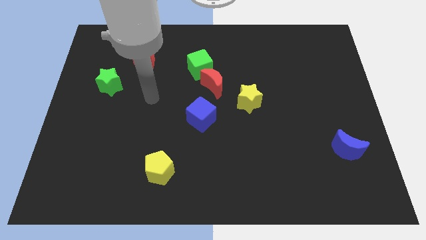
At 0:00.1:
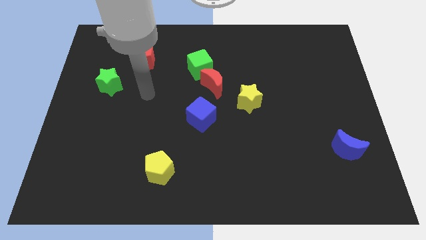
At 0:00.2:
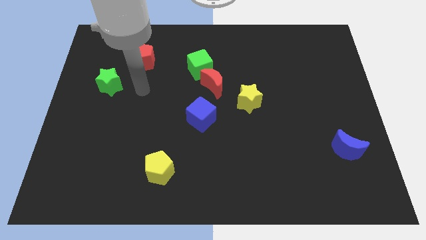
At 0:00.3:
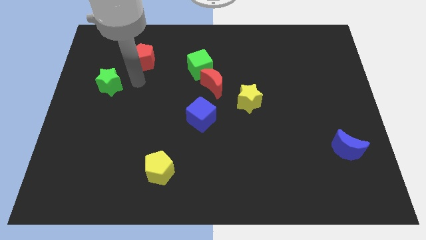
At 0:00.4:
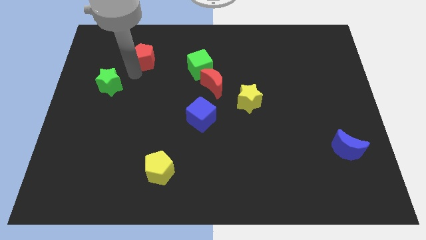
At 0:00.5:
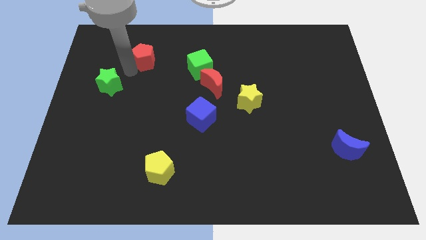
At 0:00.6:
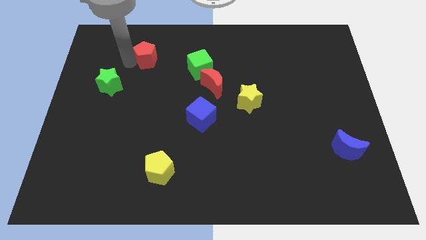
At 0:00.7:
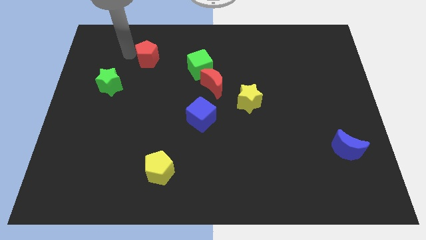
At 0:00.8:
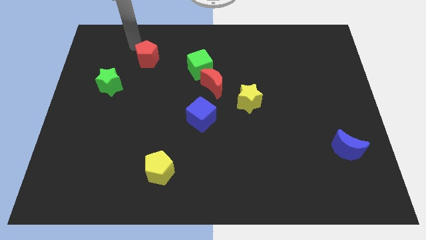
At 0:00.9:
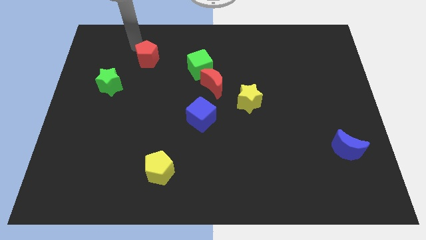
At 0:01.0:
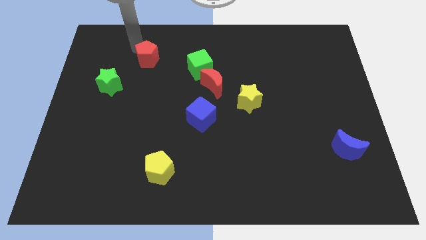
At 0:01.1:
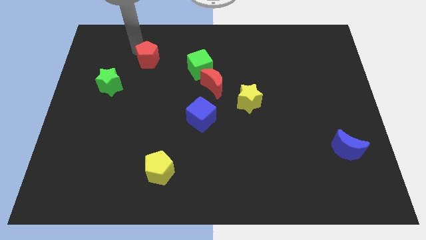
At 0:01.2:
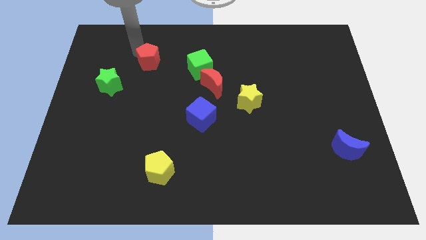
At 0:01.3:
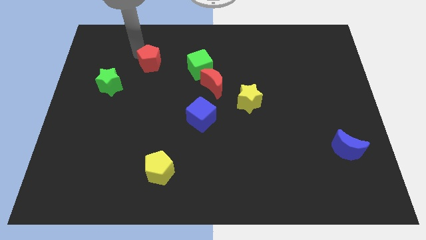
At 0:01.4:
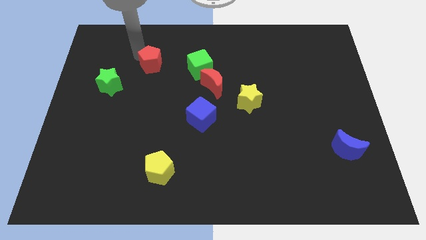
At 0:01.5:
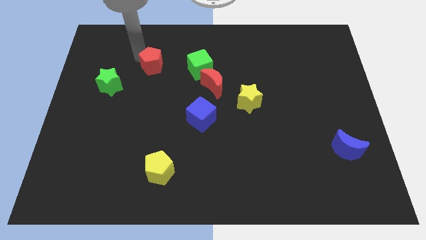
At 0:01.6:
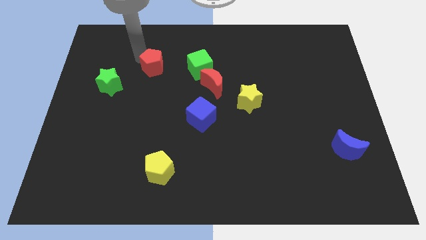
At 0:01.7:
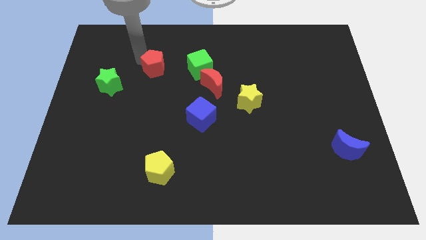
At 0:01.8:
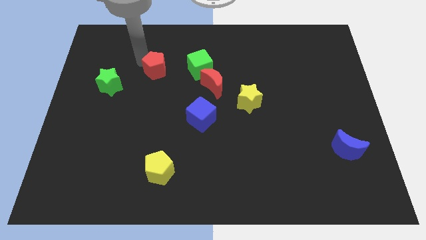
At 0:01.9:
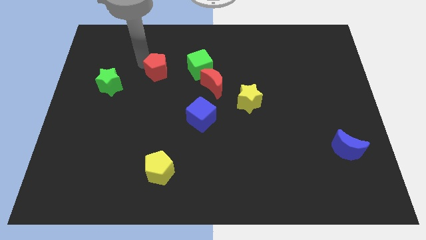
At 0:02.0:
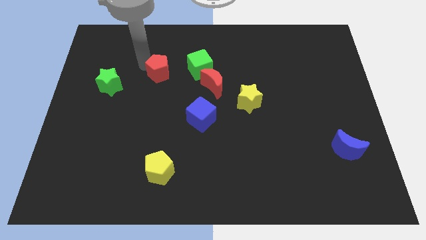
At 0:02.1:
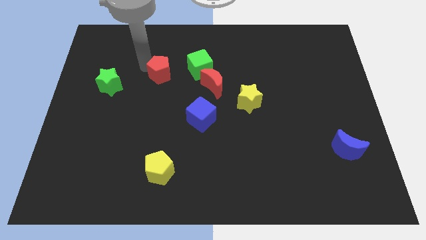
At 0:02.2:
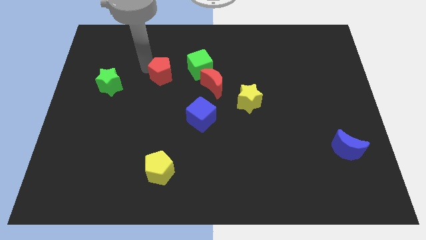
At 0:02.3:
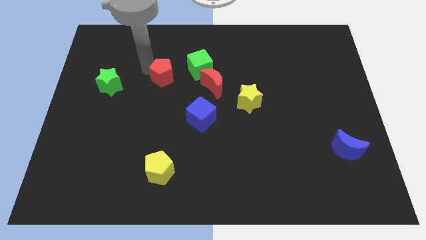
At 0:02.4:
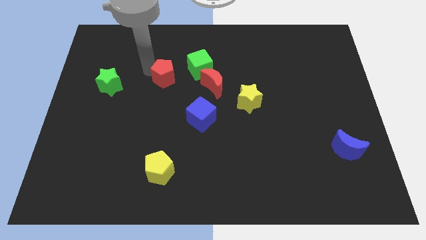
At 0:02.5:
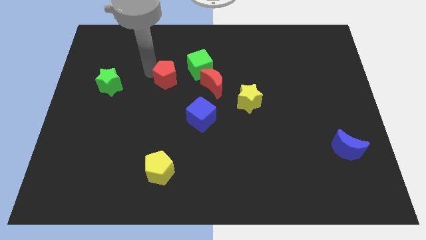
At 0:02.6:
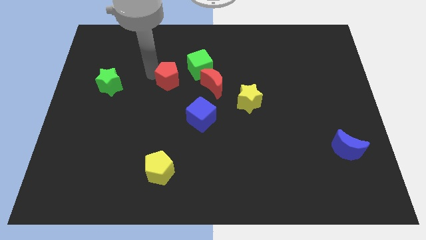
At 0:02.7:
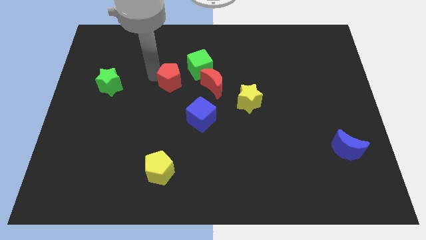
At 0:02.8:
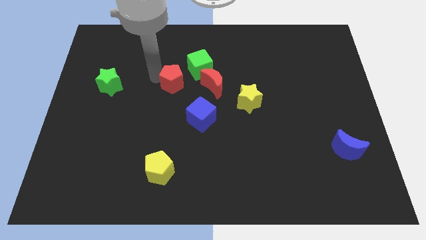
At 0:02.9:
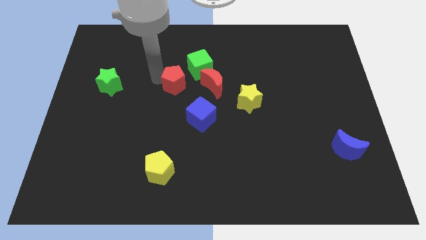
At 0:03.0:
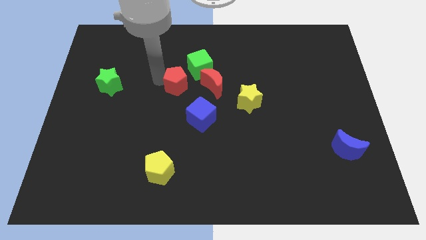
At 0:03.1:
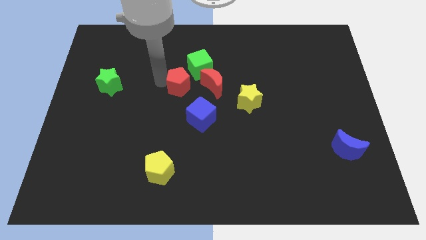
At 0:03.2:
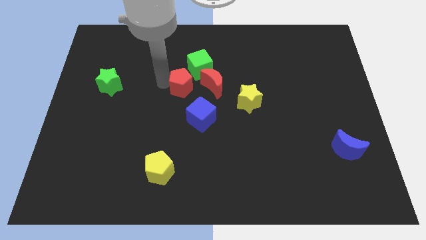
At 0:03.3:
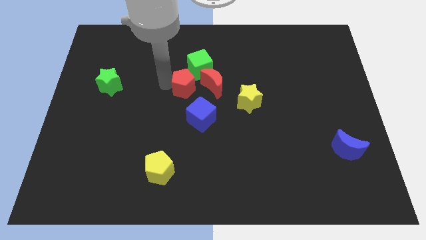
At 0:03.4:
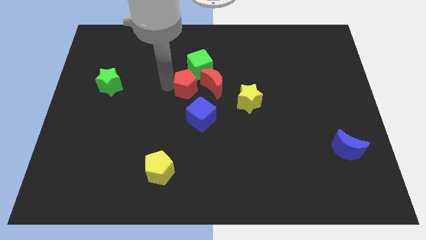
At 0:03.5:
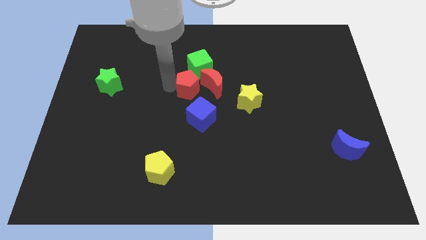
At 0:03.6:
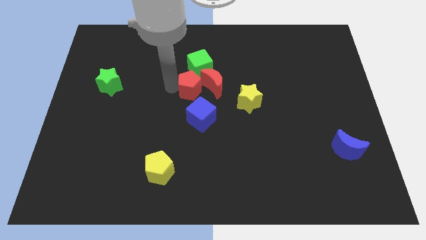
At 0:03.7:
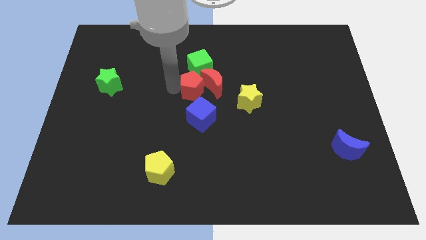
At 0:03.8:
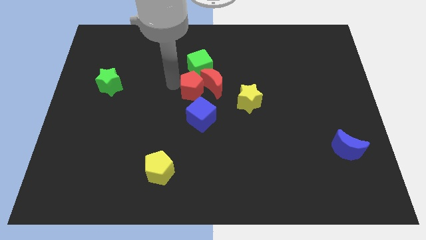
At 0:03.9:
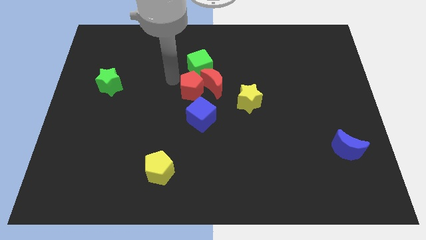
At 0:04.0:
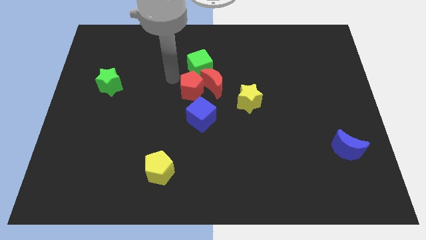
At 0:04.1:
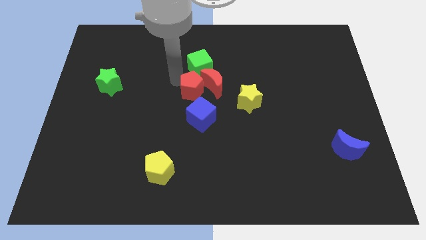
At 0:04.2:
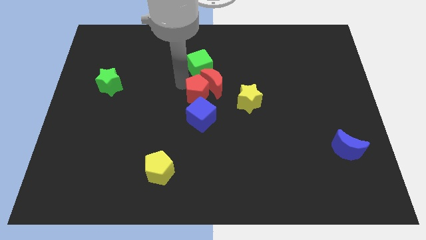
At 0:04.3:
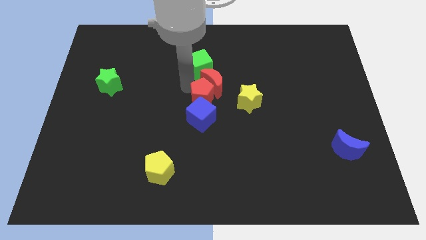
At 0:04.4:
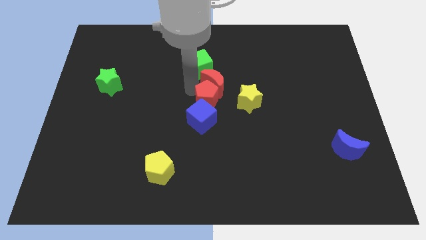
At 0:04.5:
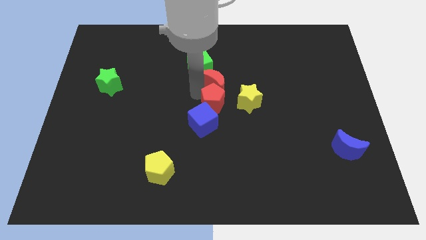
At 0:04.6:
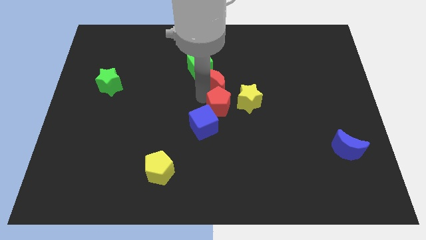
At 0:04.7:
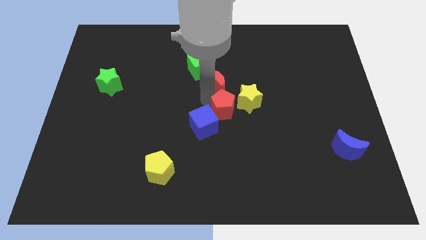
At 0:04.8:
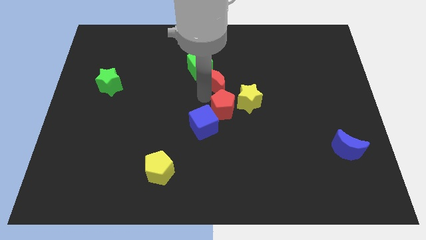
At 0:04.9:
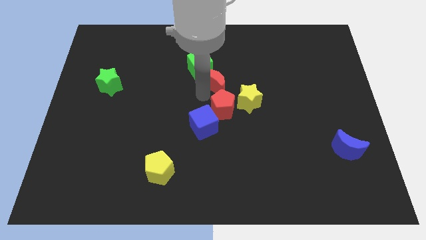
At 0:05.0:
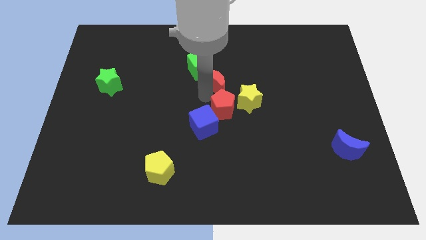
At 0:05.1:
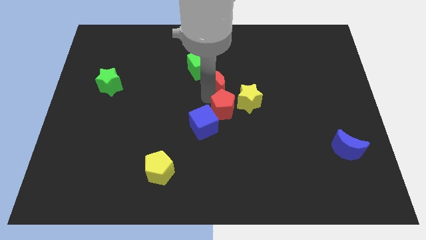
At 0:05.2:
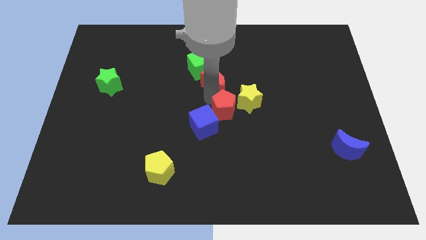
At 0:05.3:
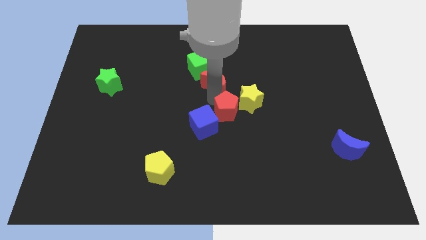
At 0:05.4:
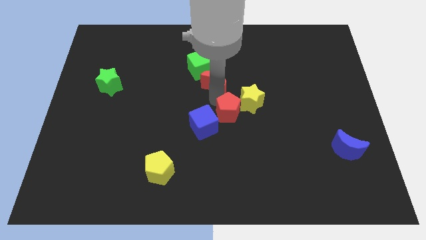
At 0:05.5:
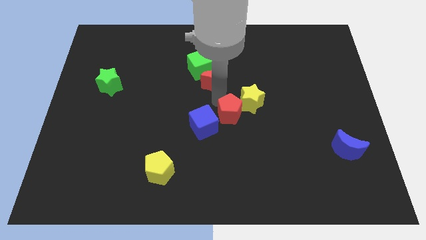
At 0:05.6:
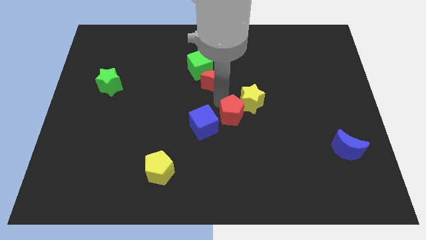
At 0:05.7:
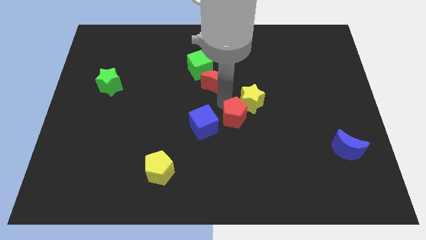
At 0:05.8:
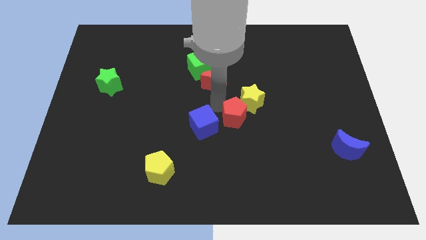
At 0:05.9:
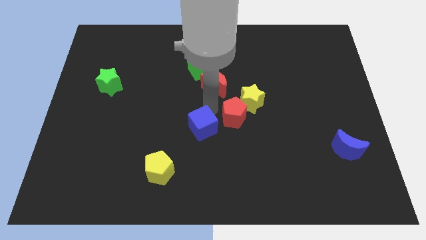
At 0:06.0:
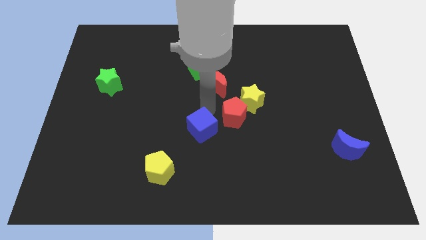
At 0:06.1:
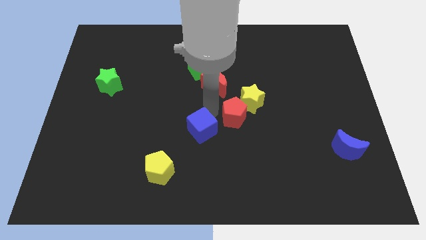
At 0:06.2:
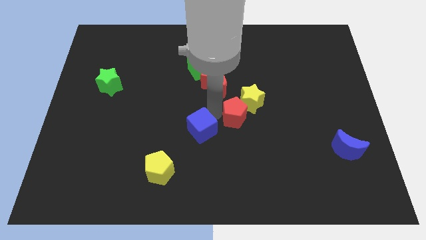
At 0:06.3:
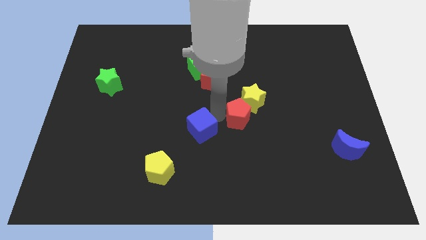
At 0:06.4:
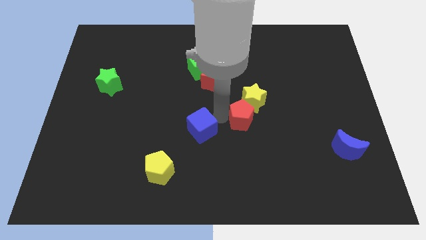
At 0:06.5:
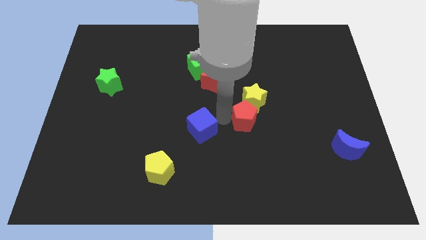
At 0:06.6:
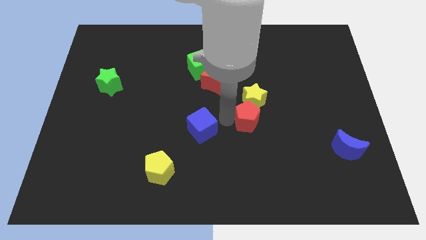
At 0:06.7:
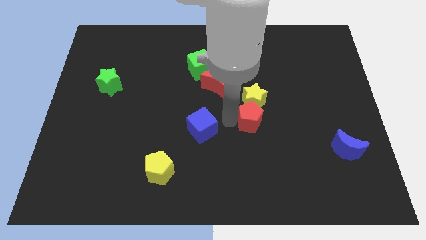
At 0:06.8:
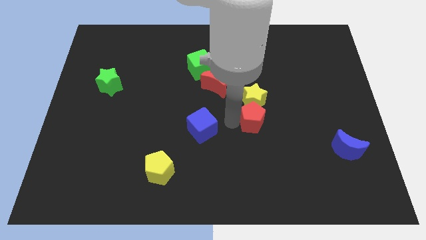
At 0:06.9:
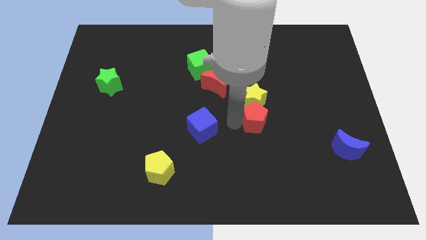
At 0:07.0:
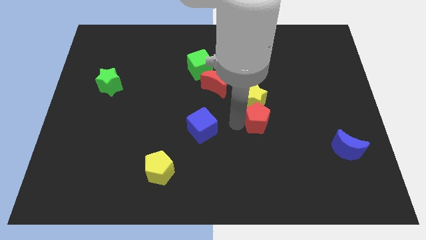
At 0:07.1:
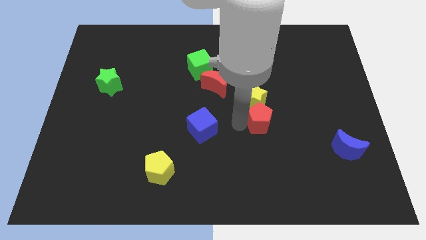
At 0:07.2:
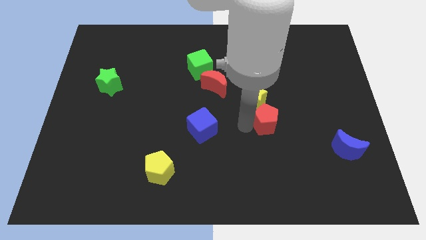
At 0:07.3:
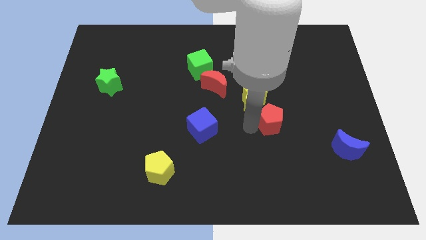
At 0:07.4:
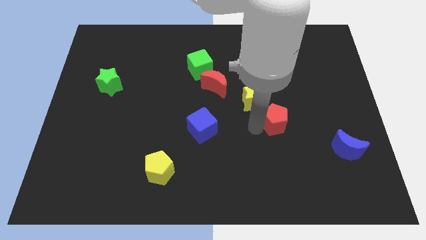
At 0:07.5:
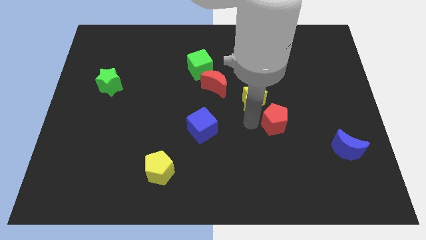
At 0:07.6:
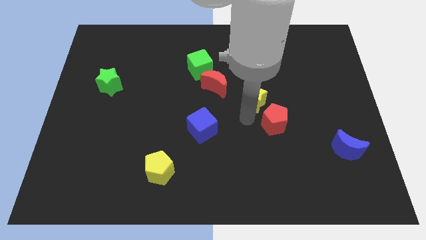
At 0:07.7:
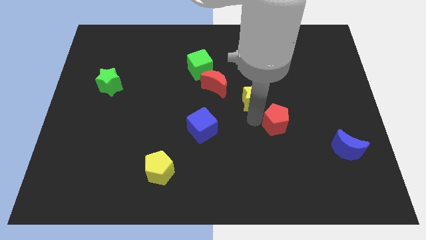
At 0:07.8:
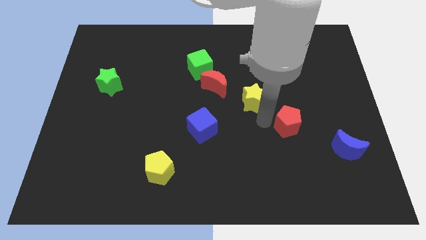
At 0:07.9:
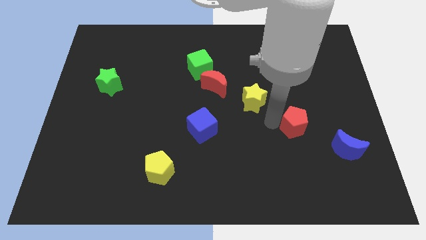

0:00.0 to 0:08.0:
put the red pentagon to the top left side of the blue moon
